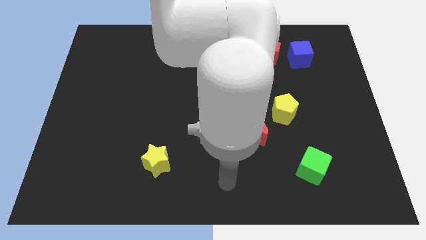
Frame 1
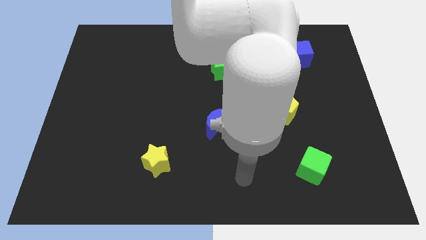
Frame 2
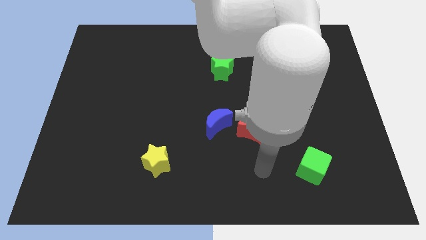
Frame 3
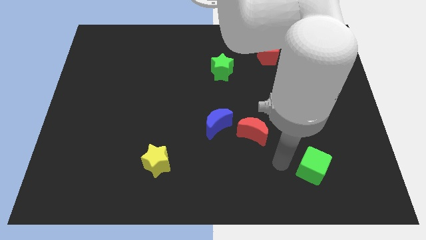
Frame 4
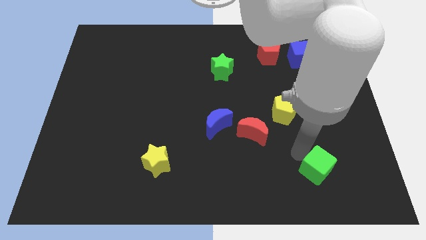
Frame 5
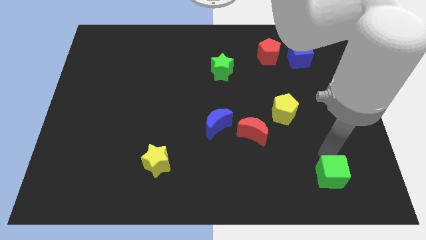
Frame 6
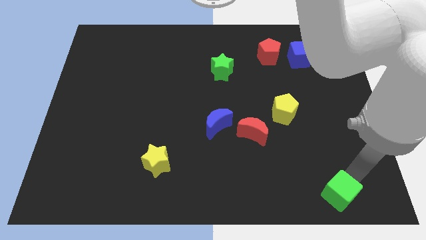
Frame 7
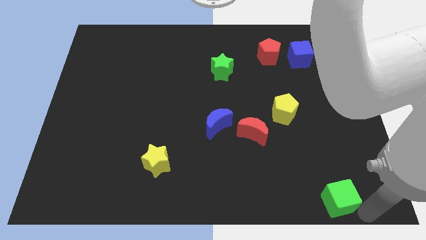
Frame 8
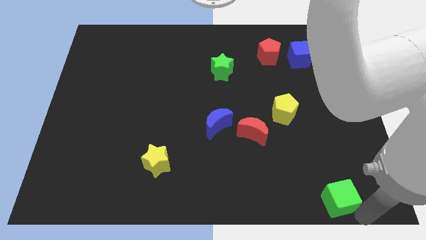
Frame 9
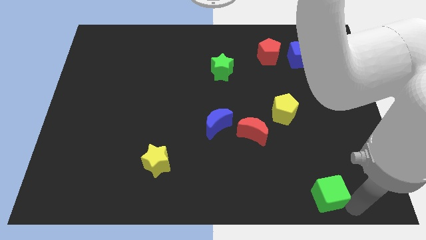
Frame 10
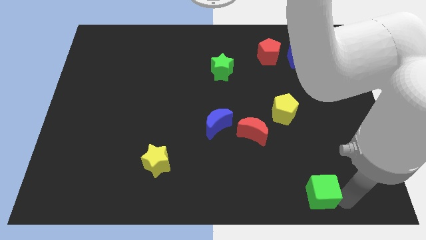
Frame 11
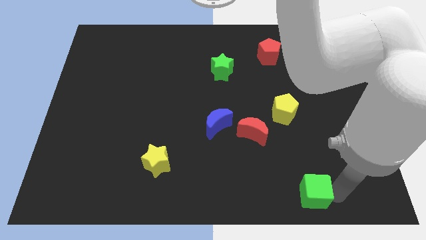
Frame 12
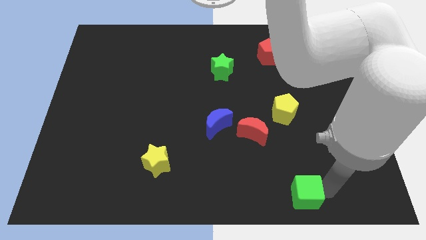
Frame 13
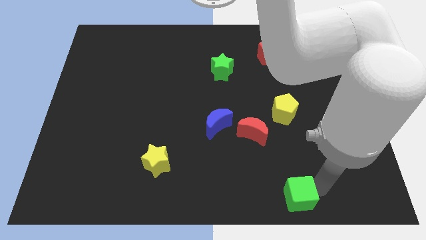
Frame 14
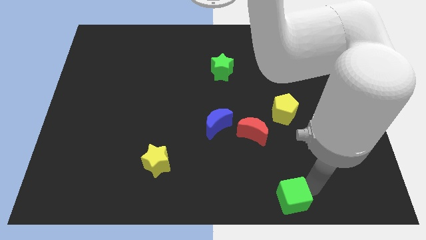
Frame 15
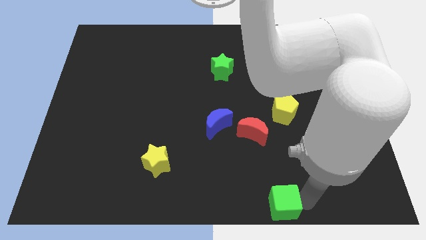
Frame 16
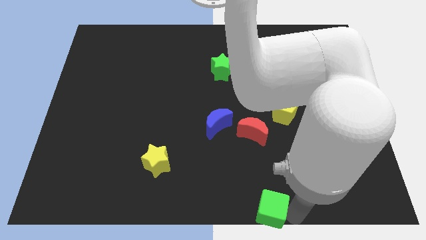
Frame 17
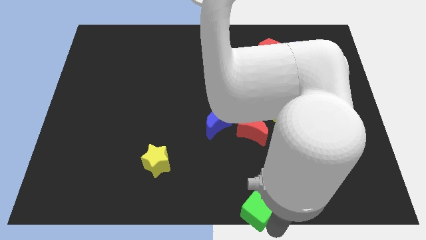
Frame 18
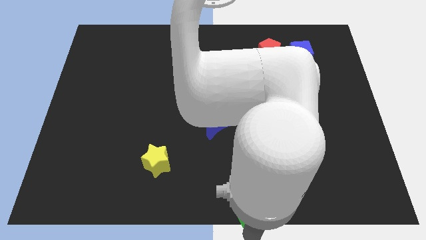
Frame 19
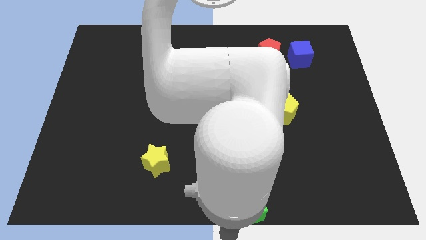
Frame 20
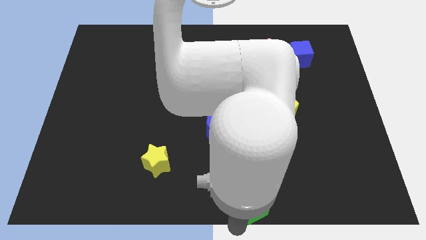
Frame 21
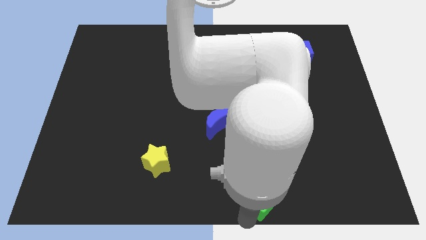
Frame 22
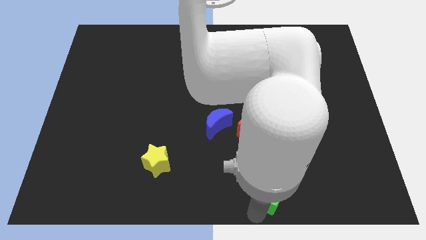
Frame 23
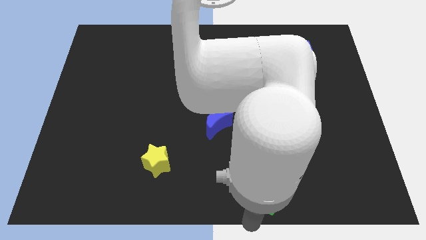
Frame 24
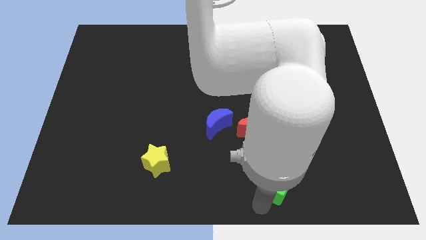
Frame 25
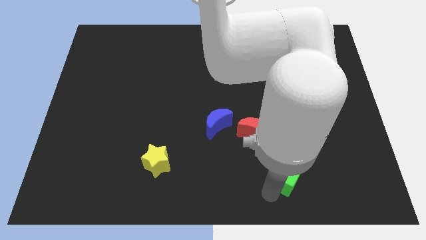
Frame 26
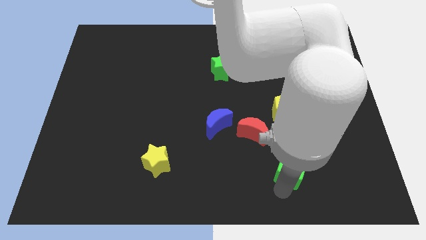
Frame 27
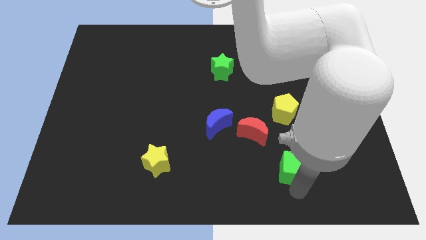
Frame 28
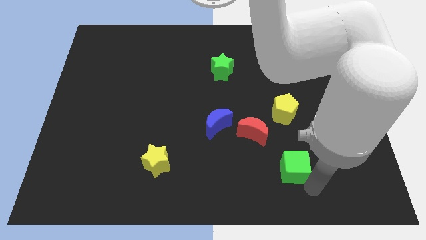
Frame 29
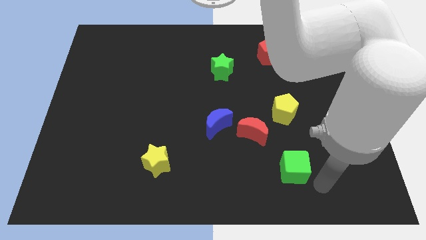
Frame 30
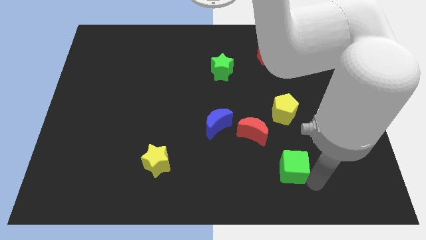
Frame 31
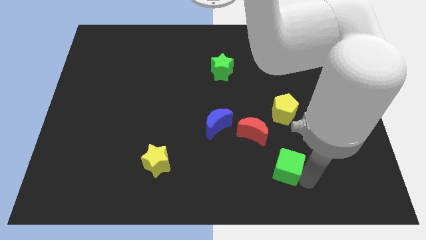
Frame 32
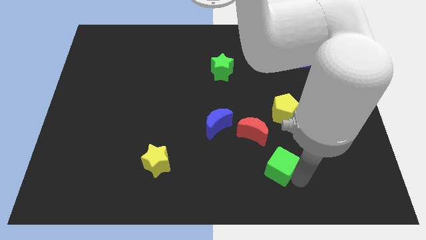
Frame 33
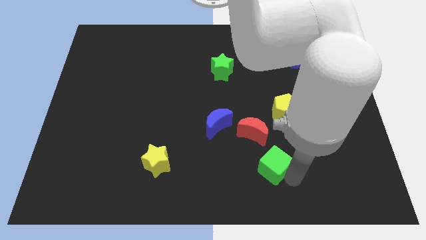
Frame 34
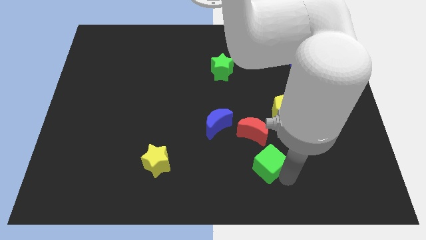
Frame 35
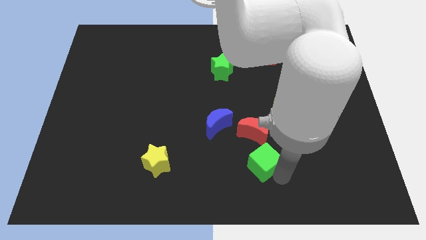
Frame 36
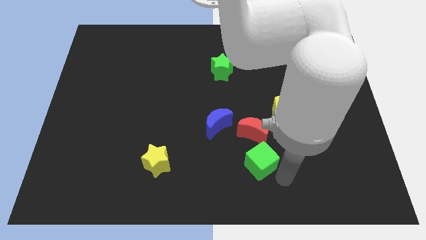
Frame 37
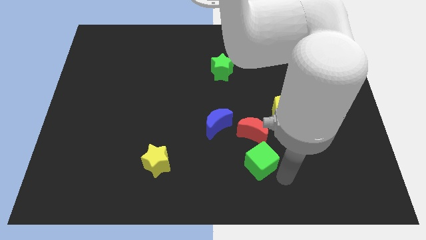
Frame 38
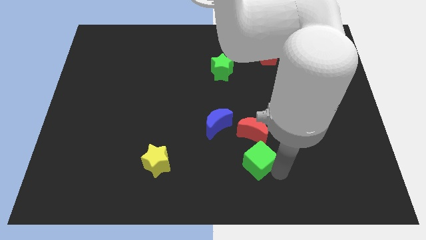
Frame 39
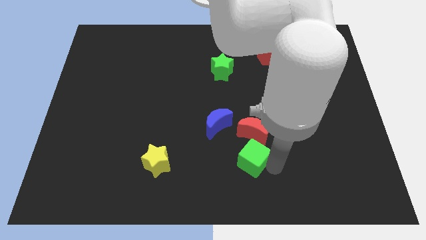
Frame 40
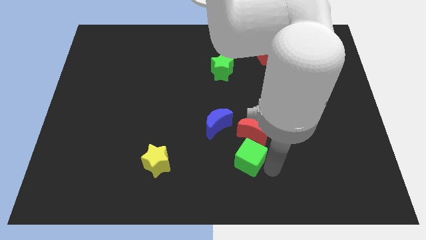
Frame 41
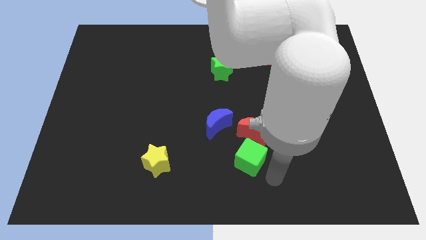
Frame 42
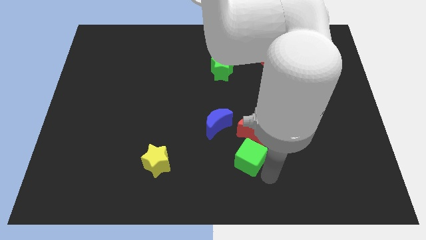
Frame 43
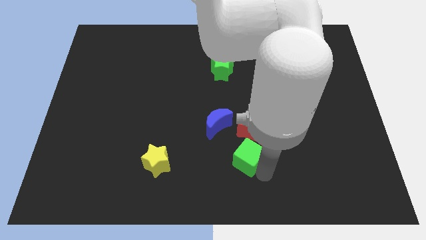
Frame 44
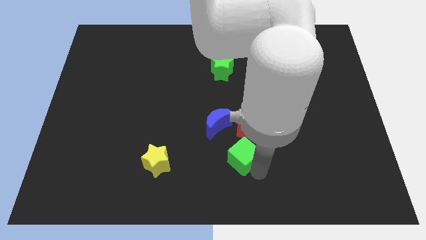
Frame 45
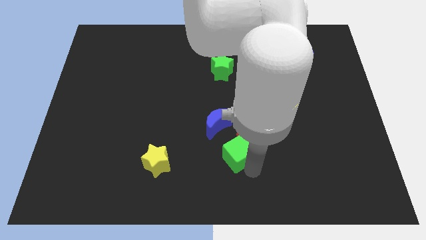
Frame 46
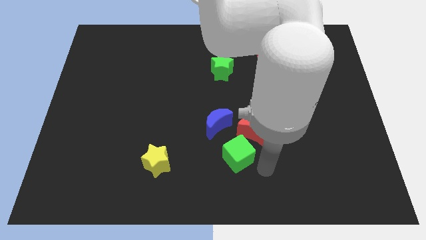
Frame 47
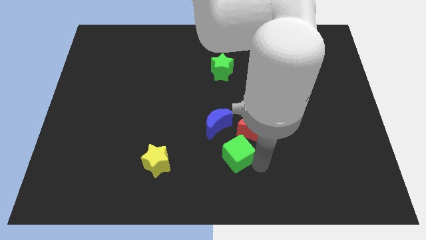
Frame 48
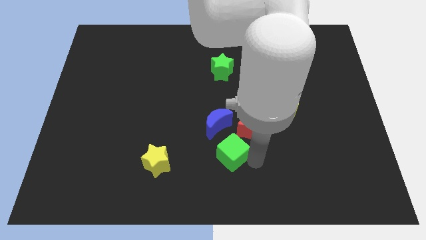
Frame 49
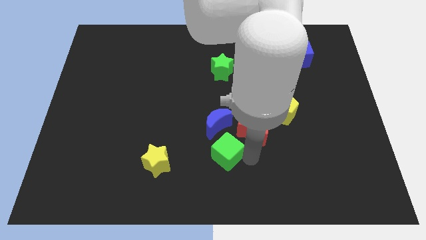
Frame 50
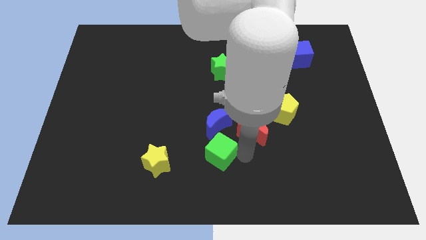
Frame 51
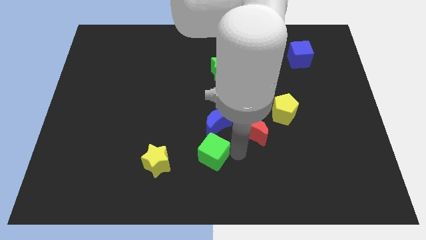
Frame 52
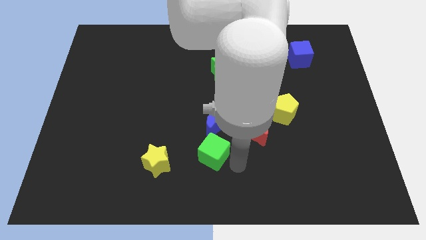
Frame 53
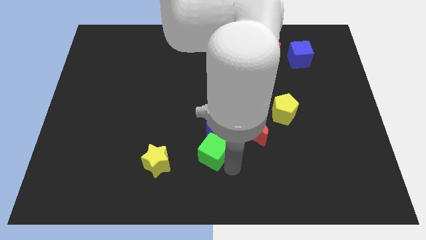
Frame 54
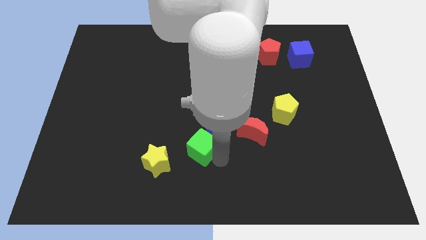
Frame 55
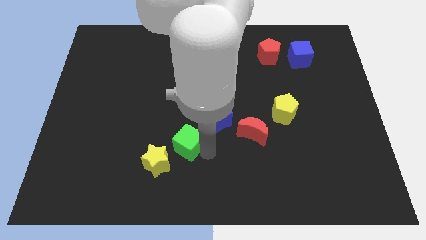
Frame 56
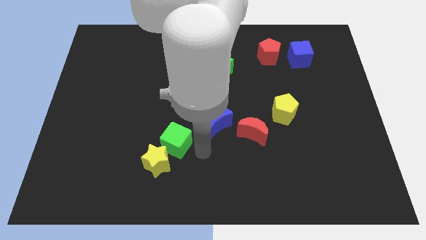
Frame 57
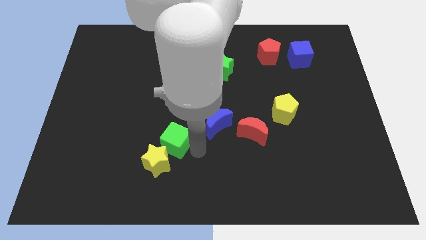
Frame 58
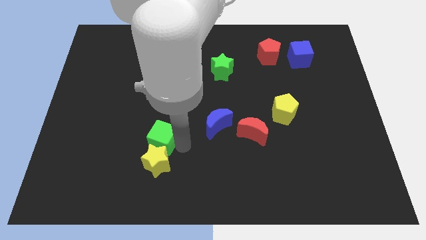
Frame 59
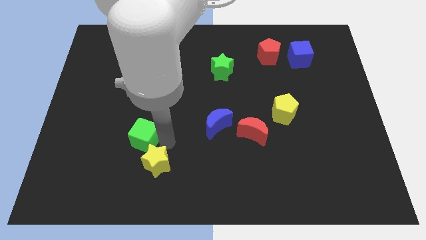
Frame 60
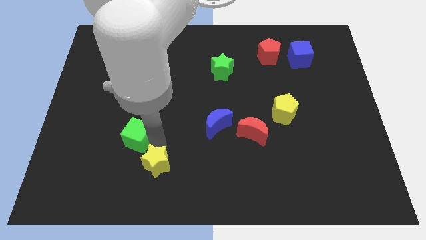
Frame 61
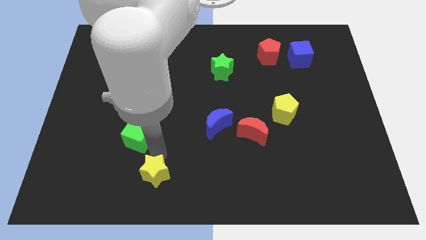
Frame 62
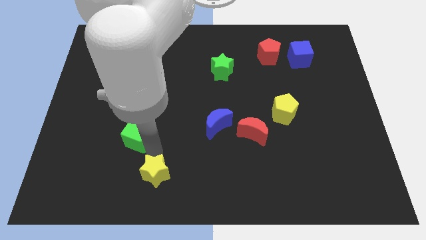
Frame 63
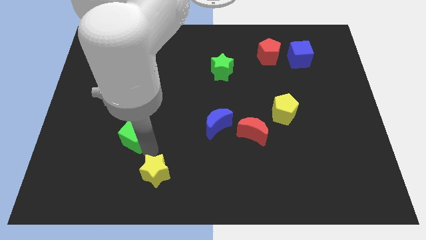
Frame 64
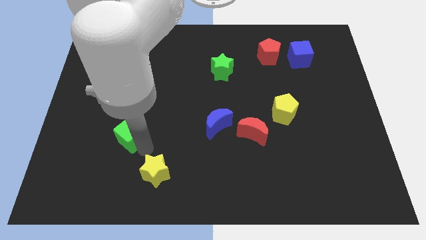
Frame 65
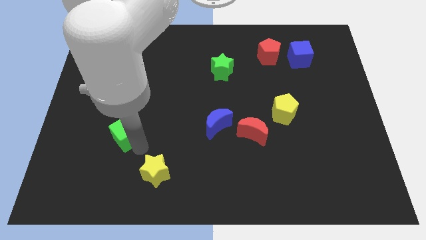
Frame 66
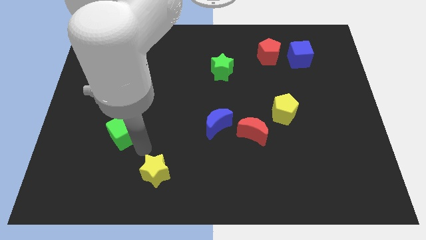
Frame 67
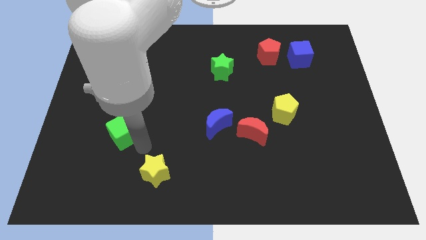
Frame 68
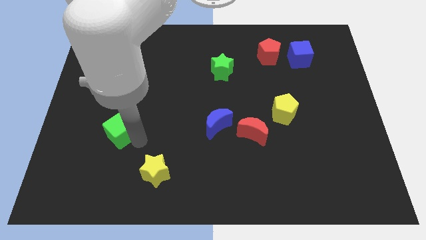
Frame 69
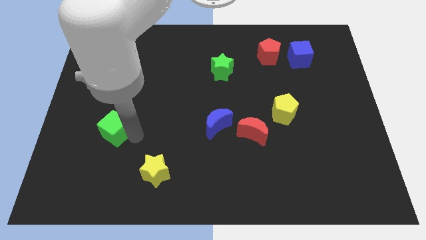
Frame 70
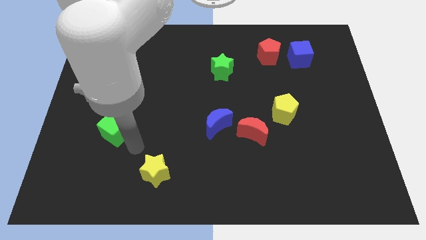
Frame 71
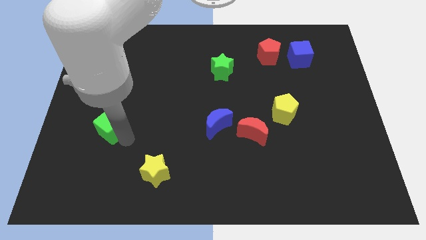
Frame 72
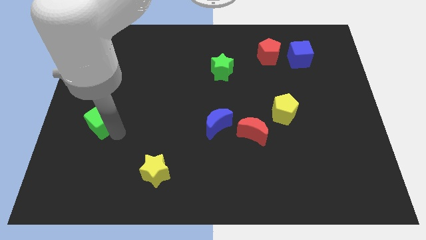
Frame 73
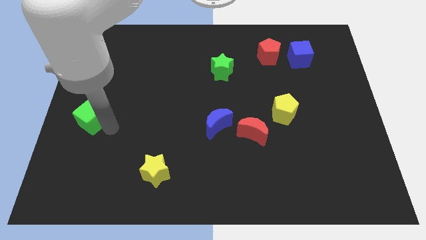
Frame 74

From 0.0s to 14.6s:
move the green cube to the left side
